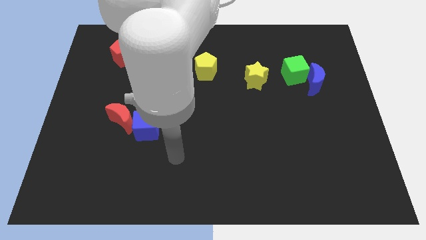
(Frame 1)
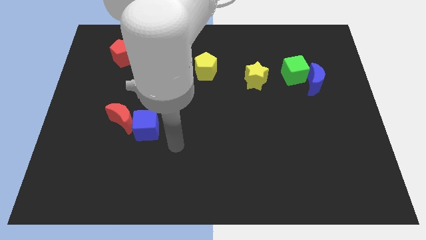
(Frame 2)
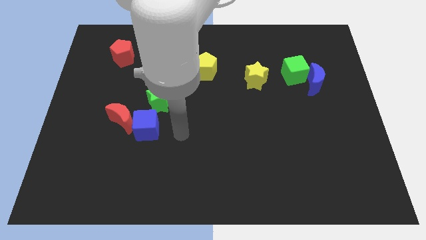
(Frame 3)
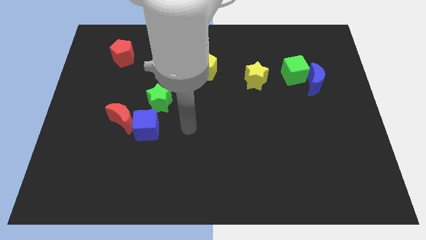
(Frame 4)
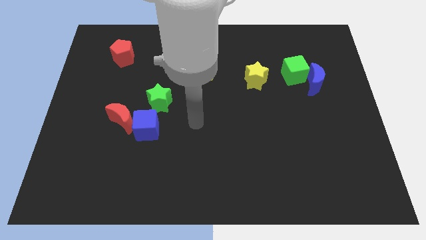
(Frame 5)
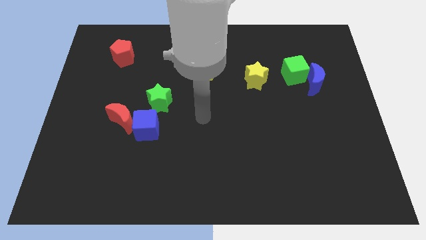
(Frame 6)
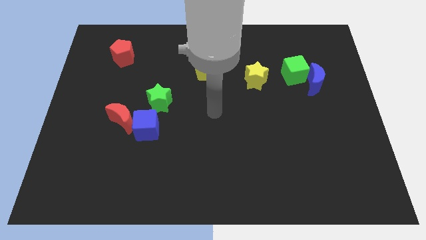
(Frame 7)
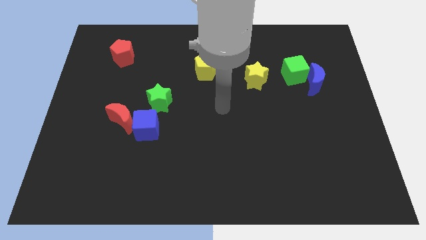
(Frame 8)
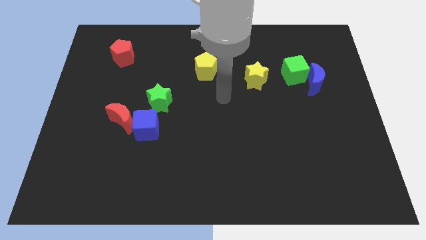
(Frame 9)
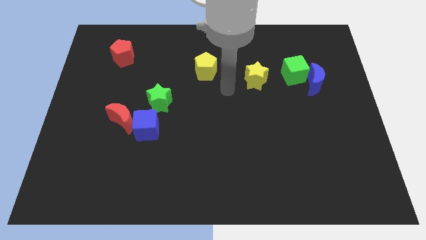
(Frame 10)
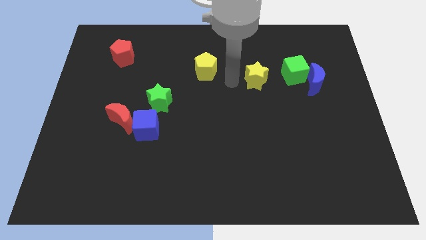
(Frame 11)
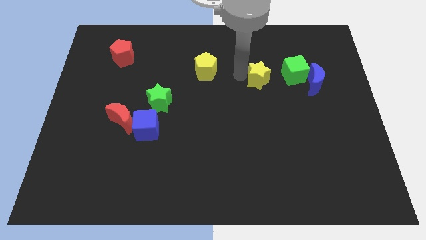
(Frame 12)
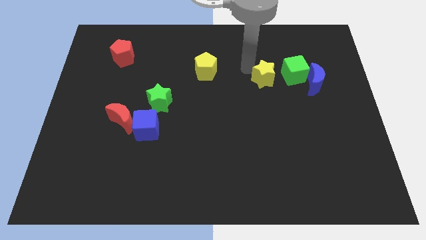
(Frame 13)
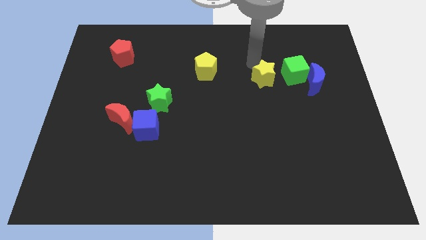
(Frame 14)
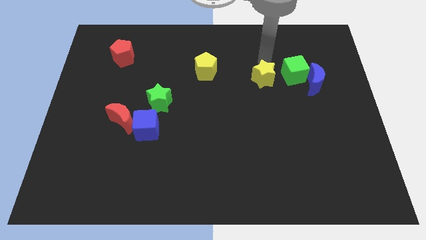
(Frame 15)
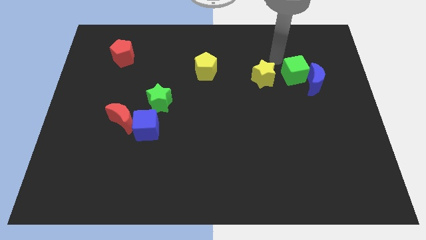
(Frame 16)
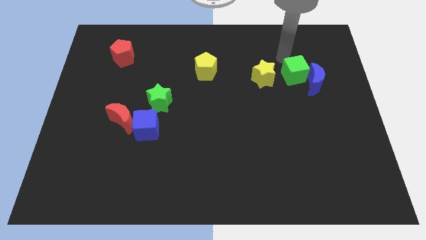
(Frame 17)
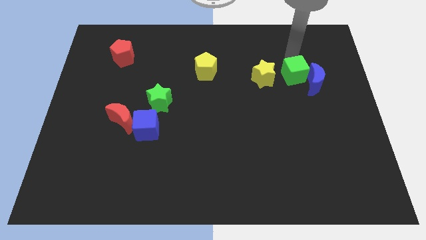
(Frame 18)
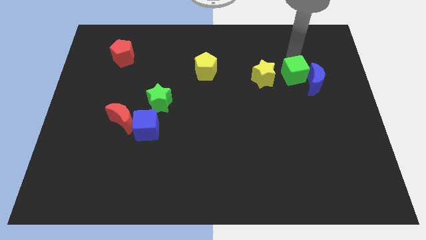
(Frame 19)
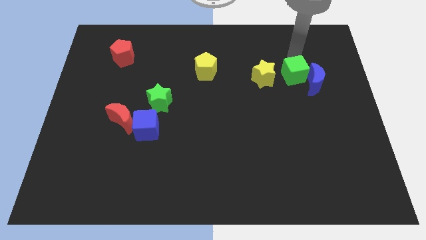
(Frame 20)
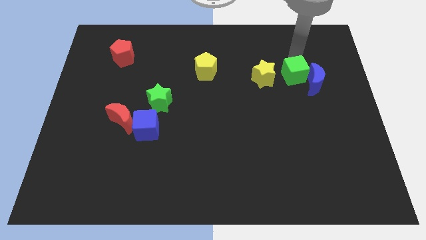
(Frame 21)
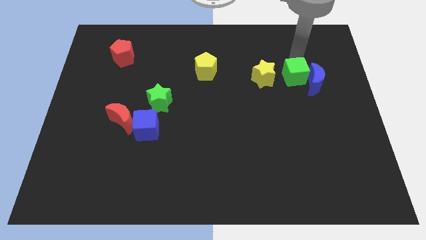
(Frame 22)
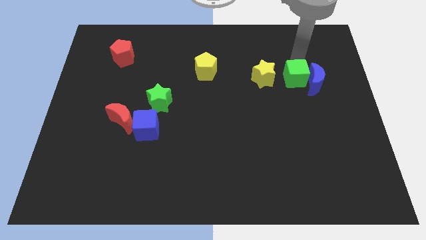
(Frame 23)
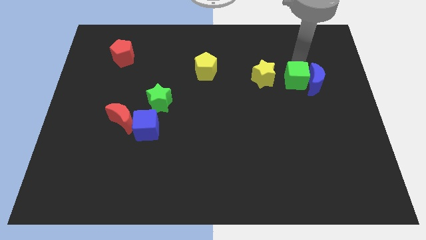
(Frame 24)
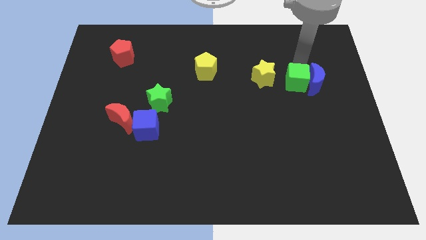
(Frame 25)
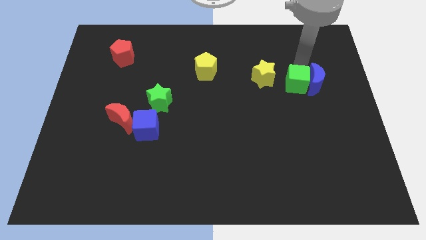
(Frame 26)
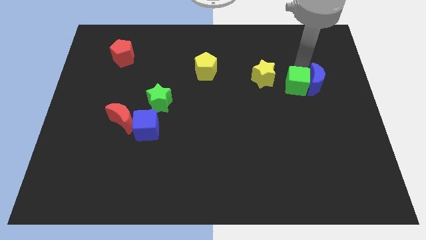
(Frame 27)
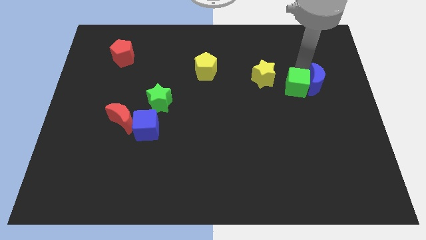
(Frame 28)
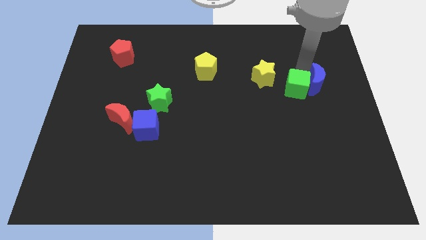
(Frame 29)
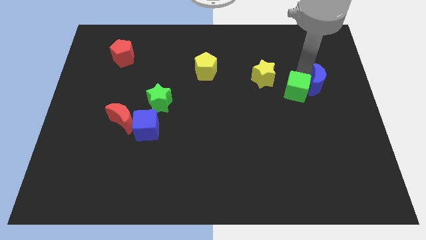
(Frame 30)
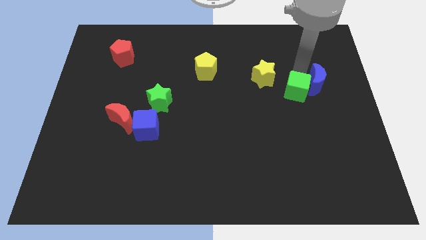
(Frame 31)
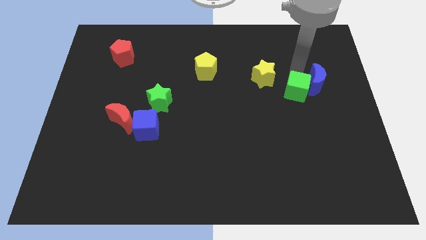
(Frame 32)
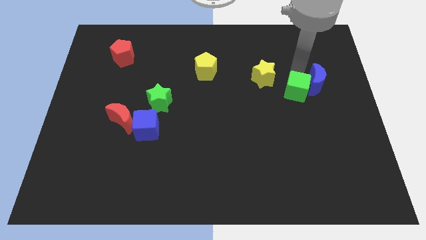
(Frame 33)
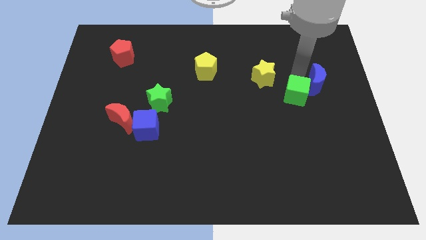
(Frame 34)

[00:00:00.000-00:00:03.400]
move the green cube downwards somewhat

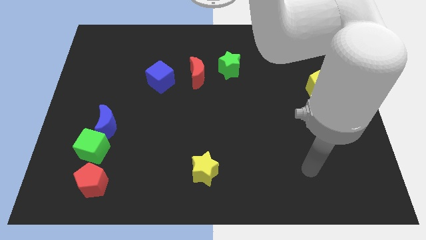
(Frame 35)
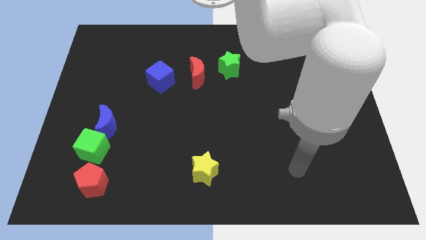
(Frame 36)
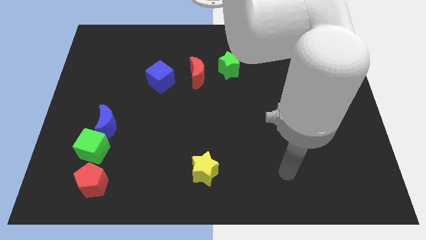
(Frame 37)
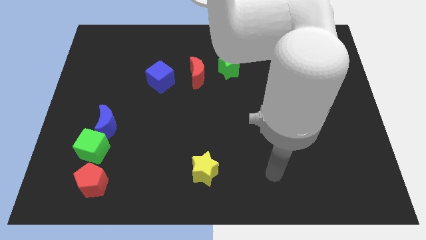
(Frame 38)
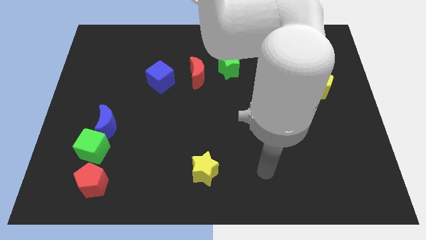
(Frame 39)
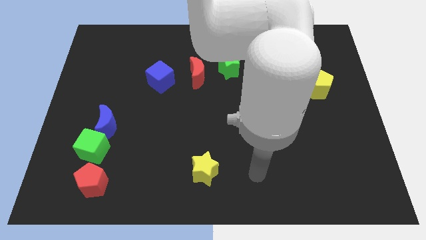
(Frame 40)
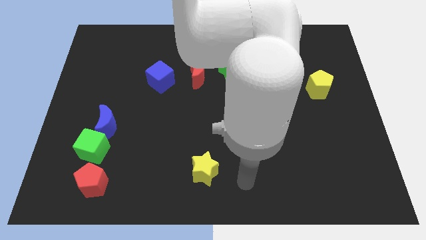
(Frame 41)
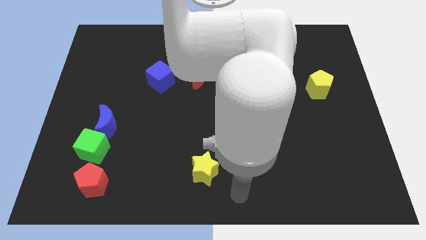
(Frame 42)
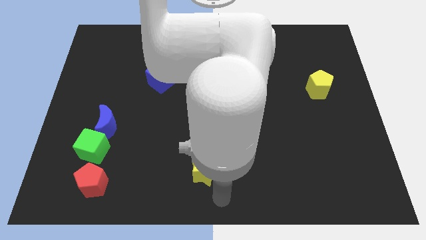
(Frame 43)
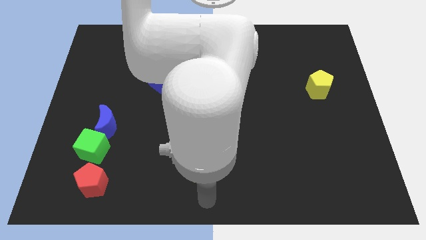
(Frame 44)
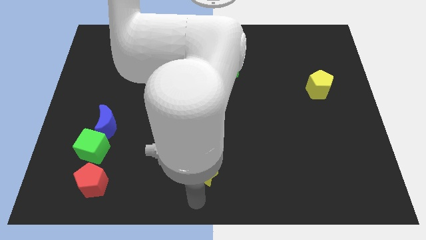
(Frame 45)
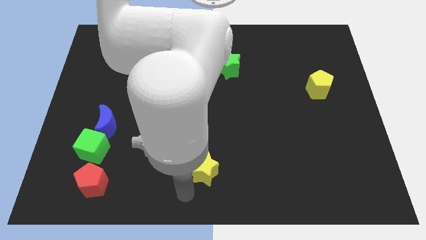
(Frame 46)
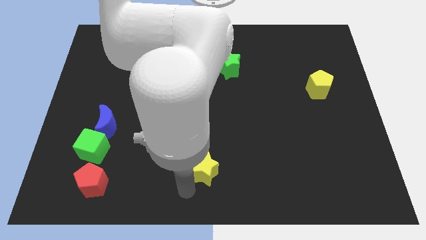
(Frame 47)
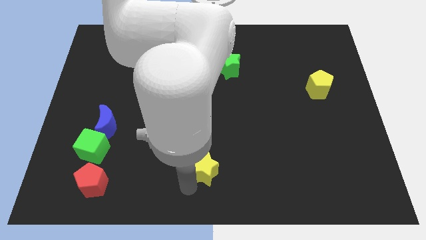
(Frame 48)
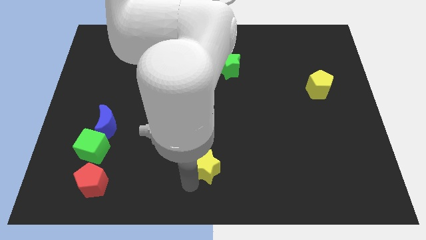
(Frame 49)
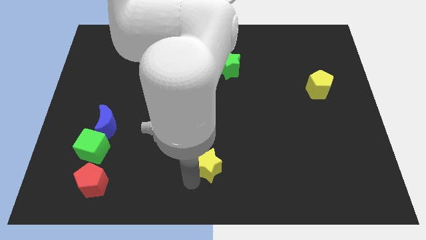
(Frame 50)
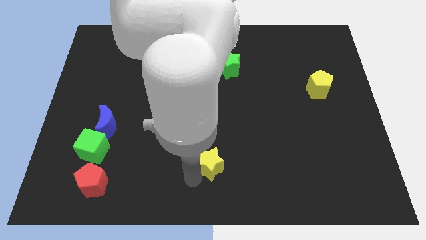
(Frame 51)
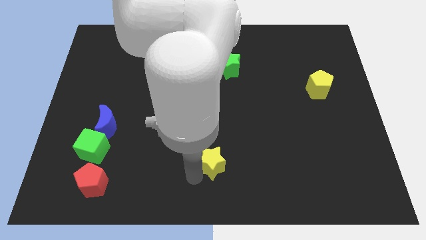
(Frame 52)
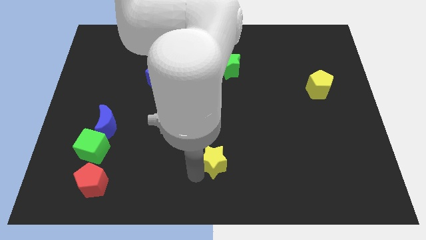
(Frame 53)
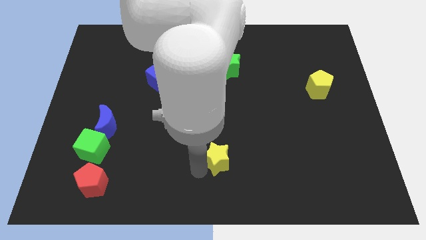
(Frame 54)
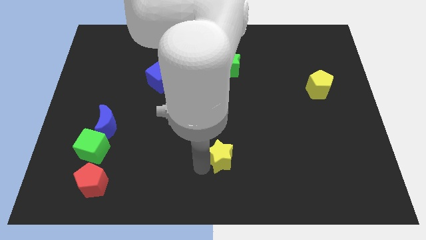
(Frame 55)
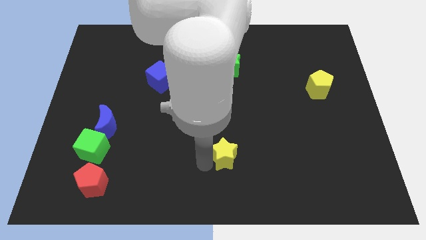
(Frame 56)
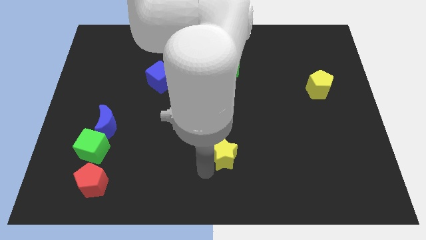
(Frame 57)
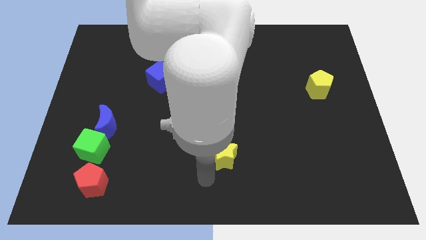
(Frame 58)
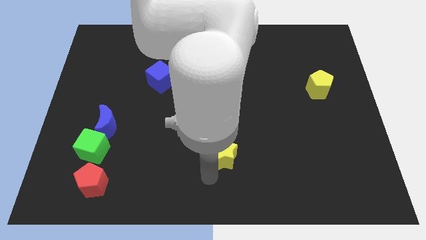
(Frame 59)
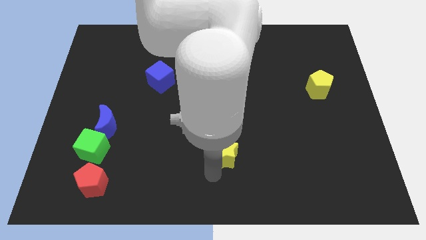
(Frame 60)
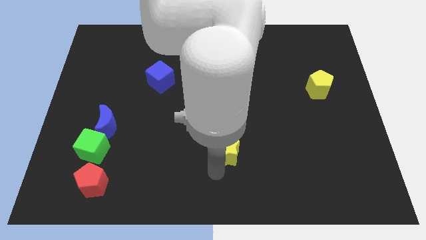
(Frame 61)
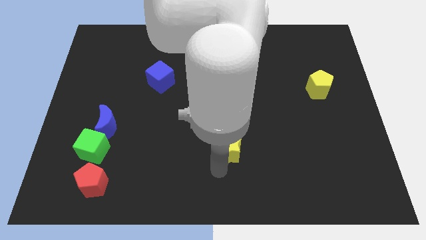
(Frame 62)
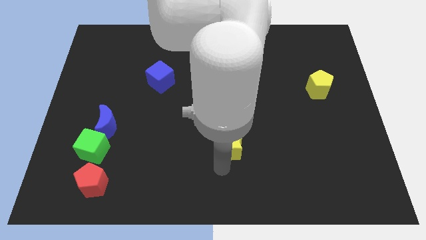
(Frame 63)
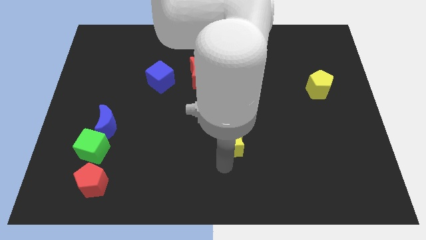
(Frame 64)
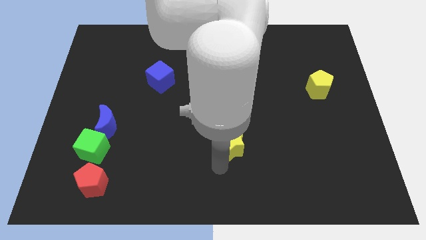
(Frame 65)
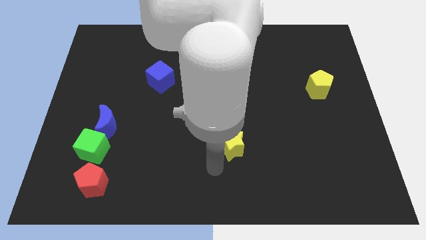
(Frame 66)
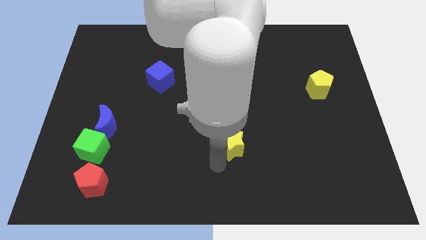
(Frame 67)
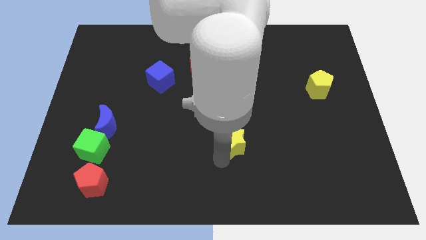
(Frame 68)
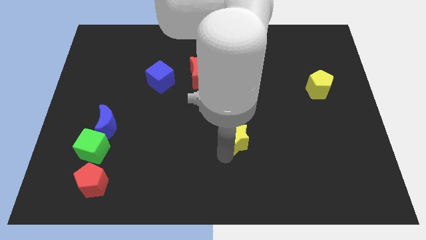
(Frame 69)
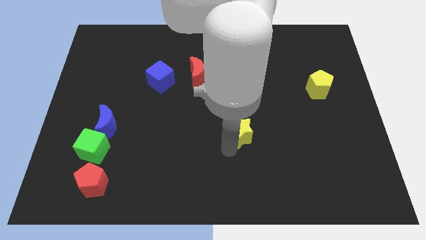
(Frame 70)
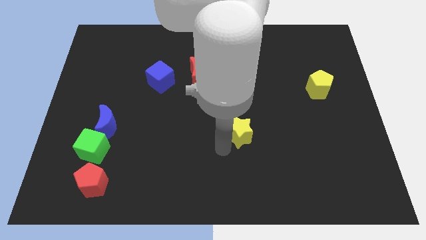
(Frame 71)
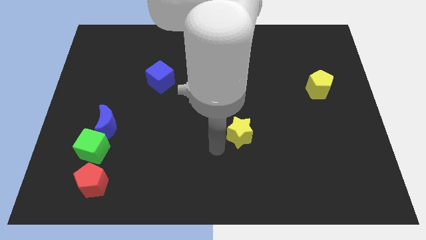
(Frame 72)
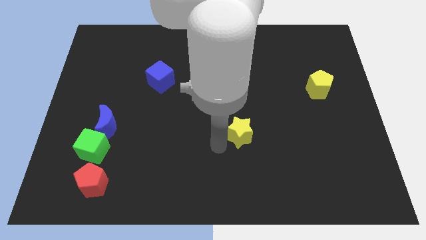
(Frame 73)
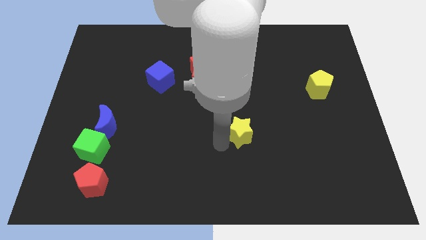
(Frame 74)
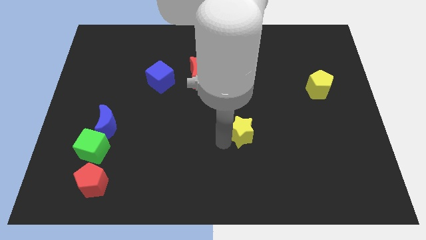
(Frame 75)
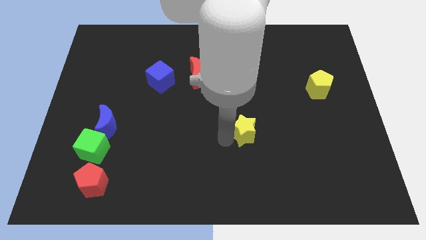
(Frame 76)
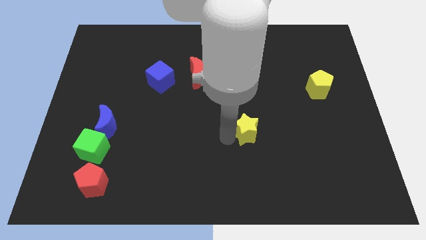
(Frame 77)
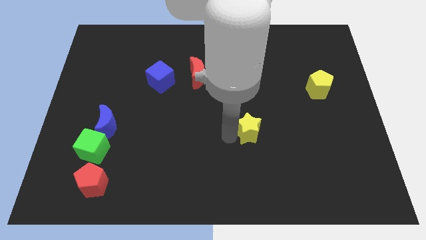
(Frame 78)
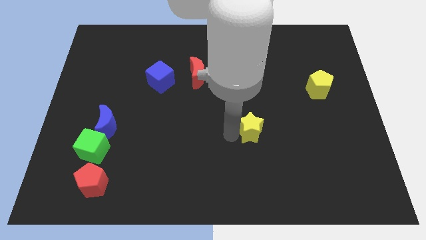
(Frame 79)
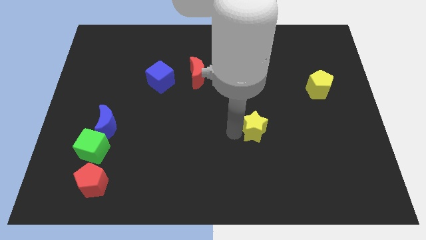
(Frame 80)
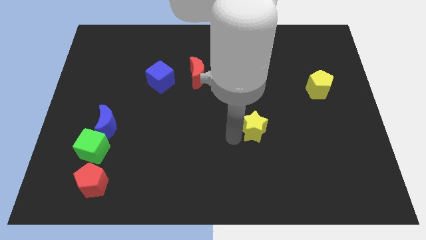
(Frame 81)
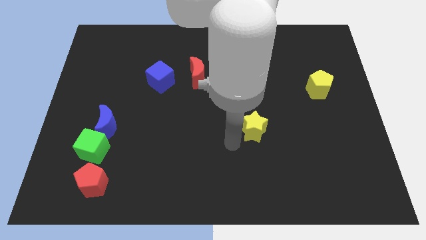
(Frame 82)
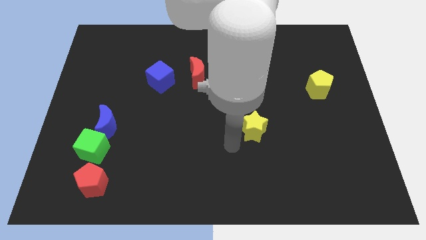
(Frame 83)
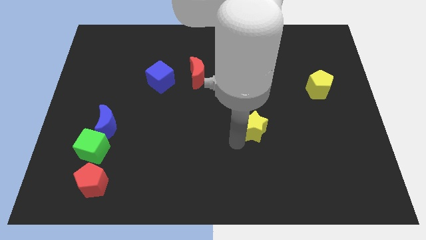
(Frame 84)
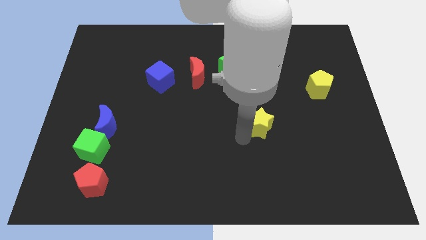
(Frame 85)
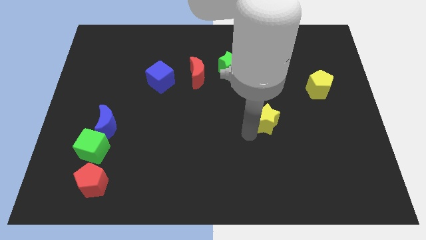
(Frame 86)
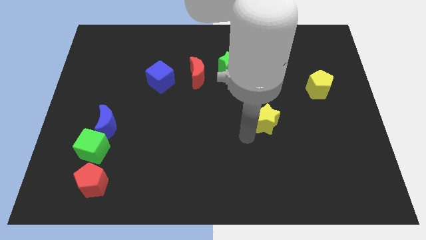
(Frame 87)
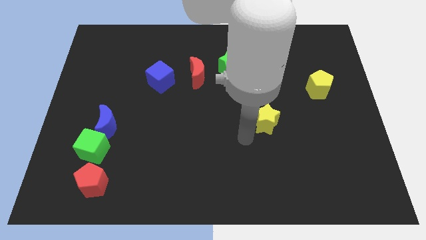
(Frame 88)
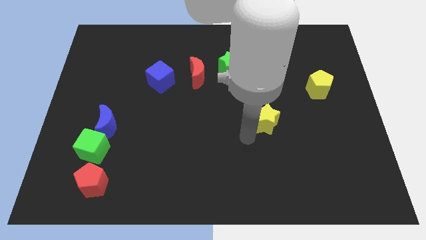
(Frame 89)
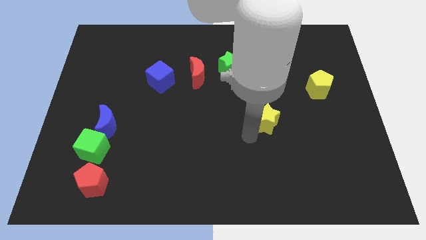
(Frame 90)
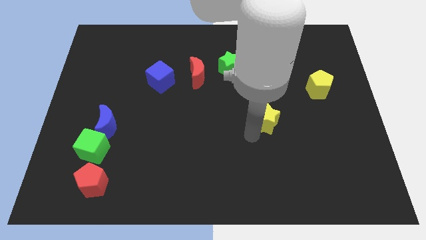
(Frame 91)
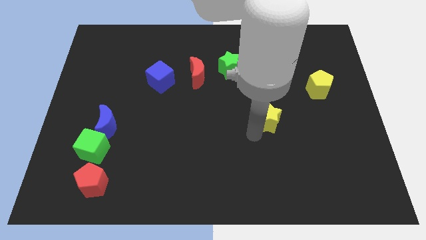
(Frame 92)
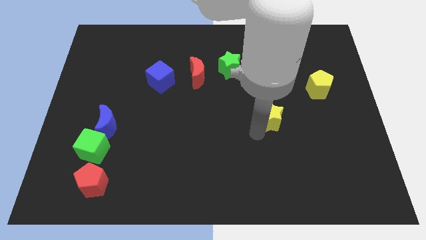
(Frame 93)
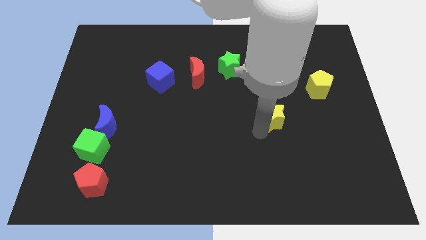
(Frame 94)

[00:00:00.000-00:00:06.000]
move the yellow star diagonally upwards and to the right
